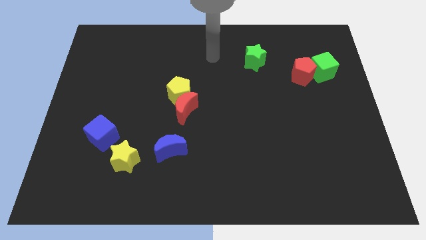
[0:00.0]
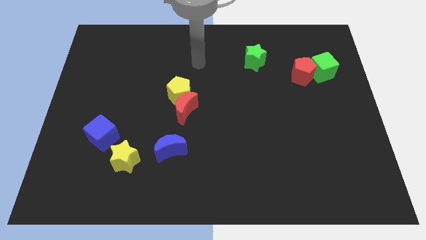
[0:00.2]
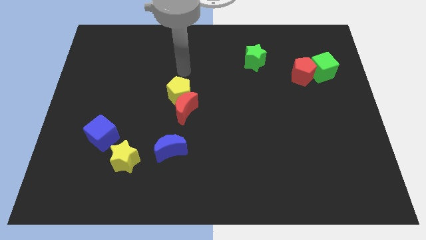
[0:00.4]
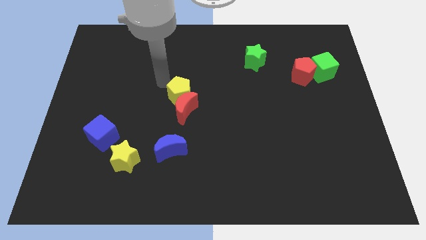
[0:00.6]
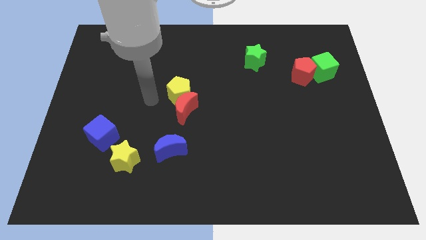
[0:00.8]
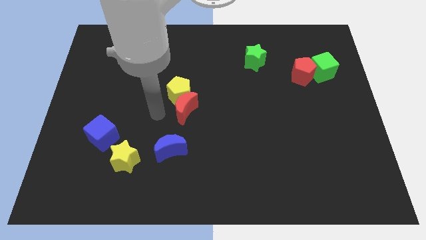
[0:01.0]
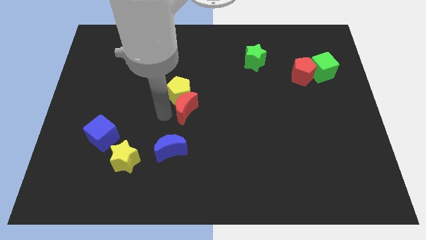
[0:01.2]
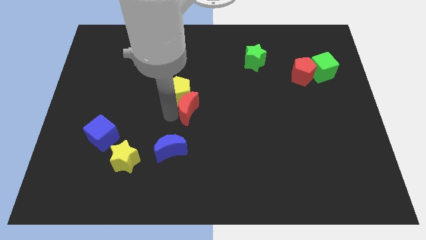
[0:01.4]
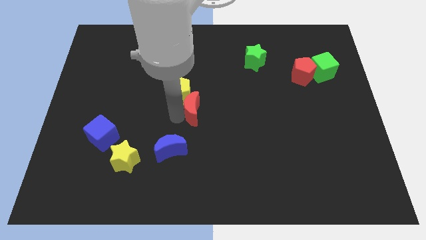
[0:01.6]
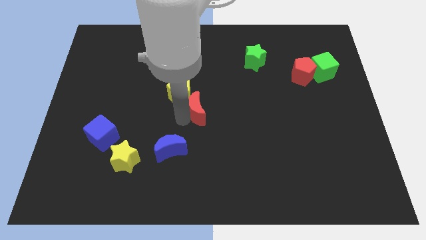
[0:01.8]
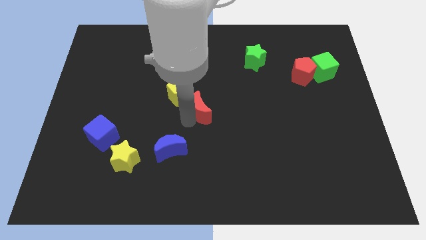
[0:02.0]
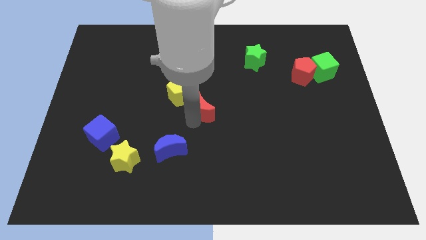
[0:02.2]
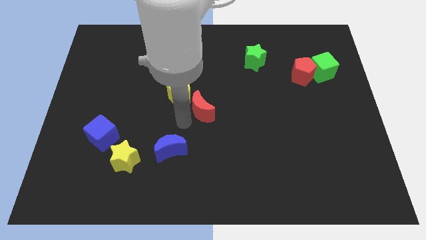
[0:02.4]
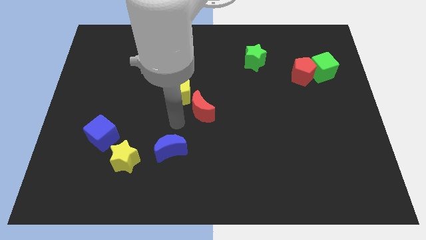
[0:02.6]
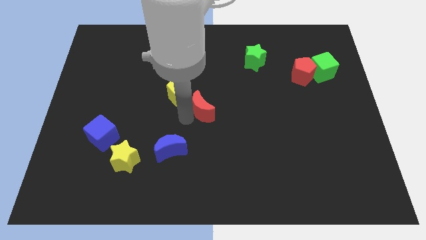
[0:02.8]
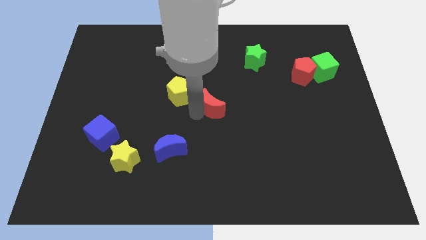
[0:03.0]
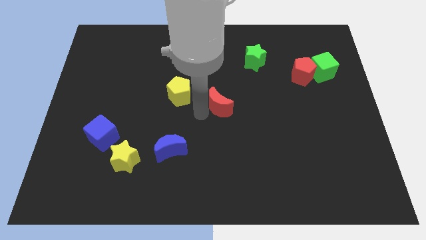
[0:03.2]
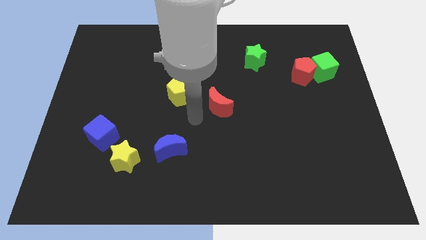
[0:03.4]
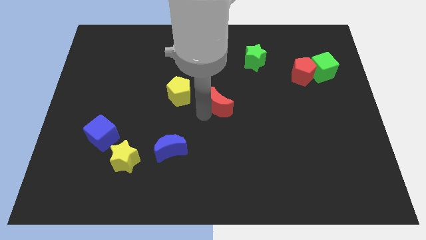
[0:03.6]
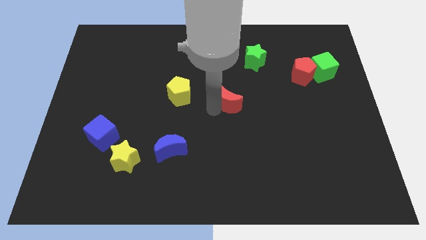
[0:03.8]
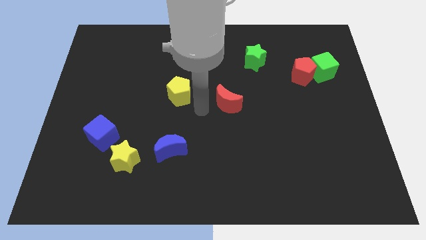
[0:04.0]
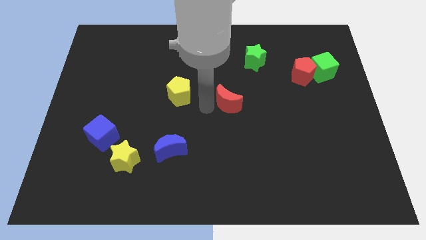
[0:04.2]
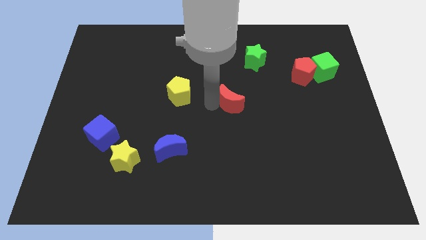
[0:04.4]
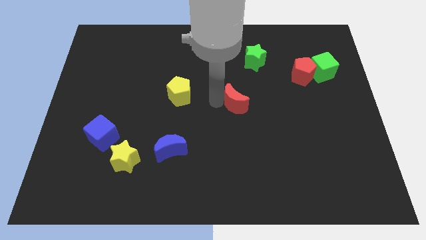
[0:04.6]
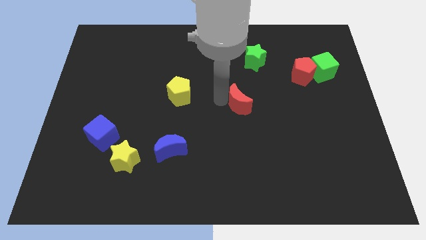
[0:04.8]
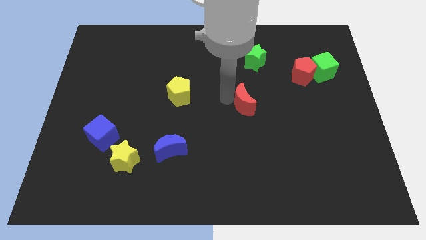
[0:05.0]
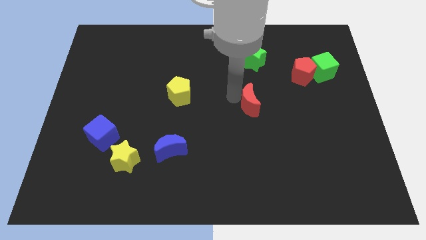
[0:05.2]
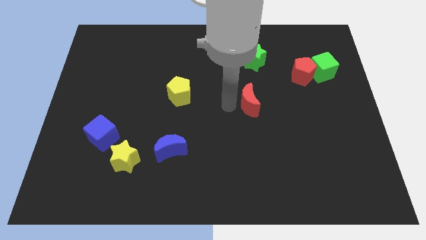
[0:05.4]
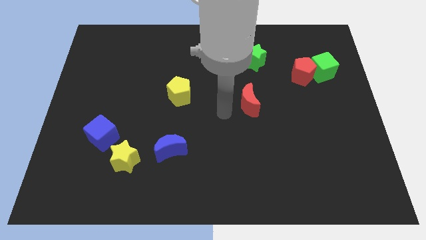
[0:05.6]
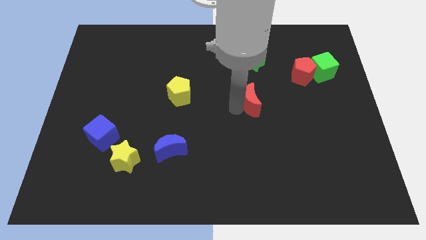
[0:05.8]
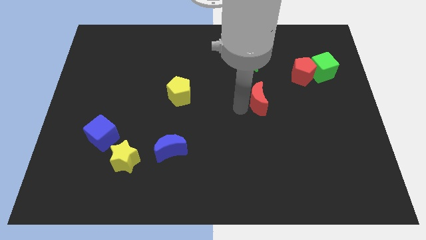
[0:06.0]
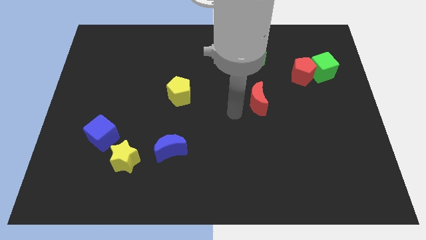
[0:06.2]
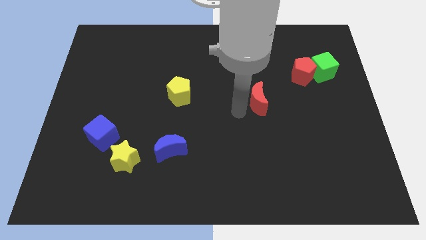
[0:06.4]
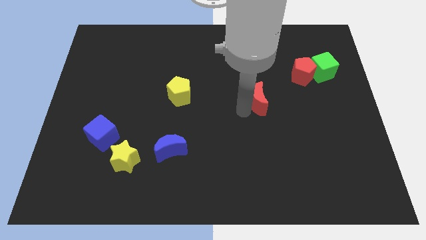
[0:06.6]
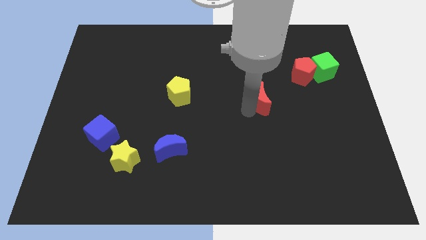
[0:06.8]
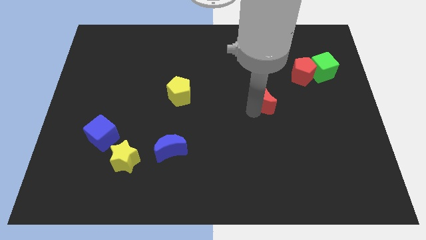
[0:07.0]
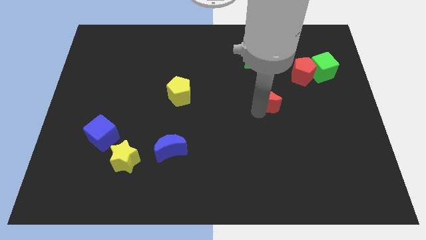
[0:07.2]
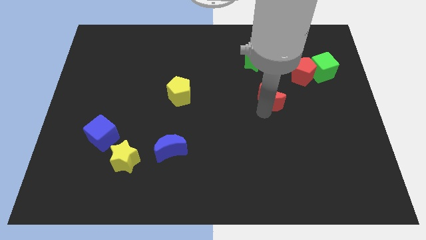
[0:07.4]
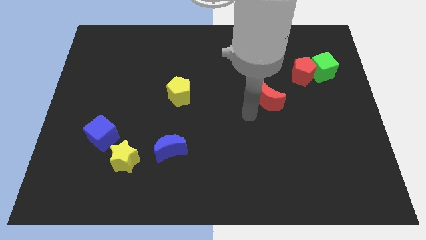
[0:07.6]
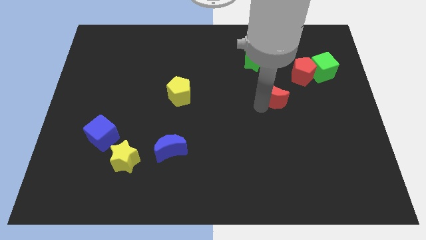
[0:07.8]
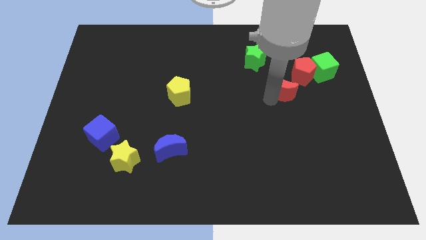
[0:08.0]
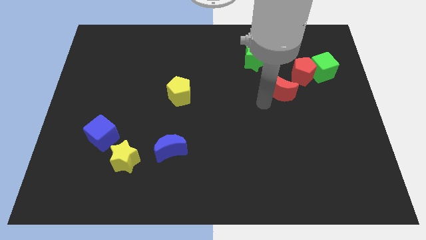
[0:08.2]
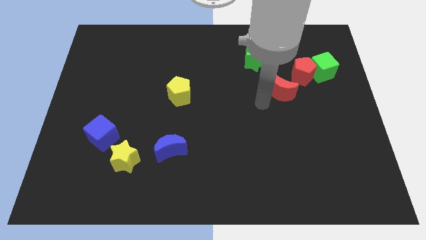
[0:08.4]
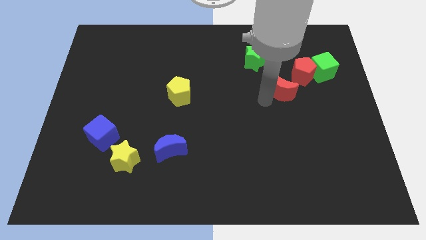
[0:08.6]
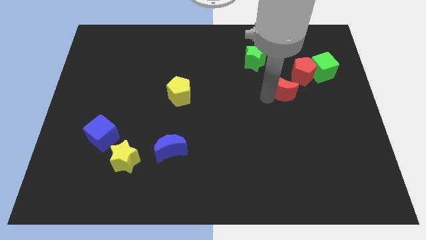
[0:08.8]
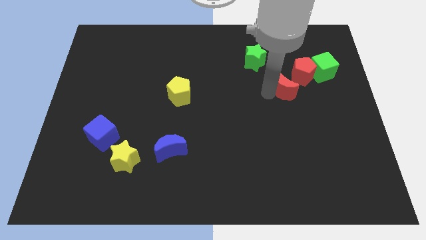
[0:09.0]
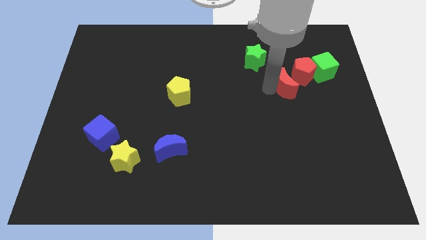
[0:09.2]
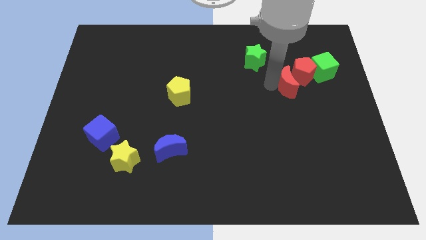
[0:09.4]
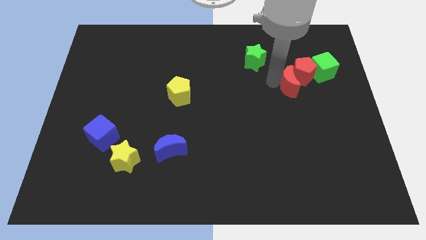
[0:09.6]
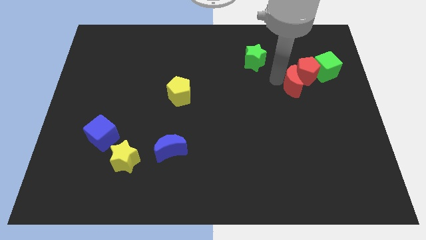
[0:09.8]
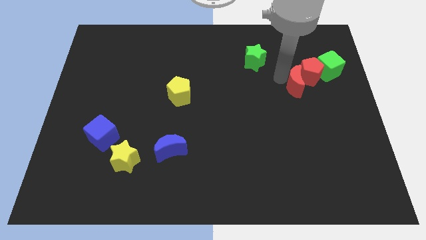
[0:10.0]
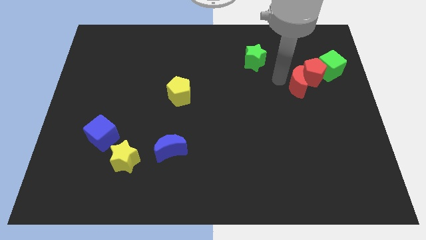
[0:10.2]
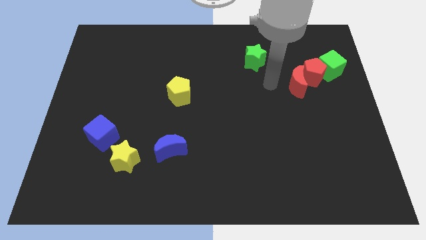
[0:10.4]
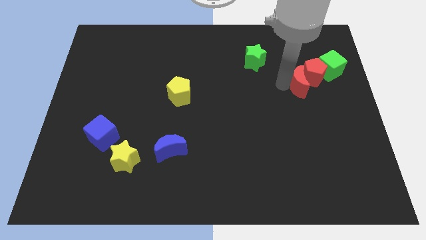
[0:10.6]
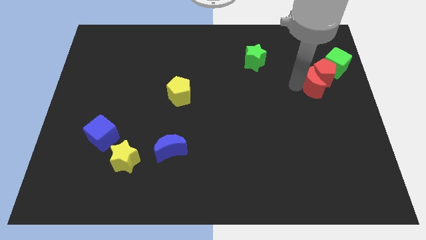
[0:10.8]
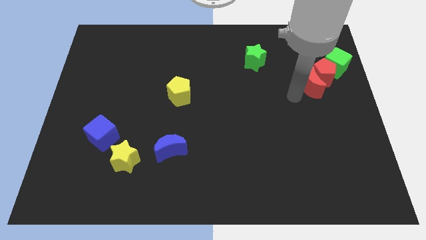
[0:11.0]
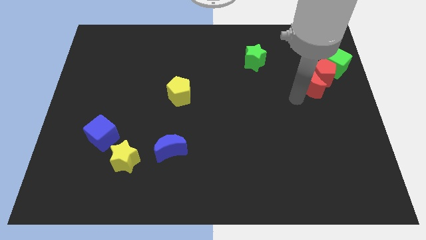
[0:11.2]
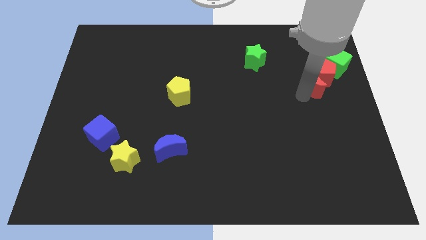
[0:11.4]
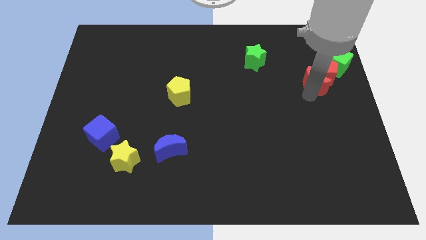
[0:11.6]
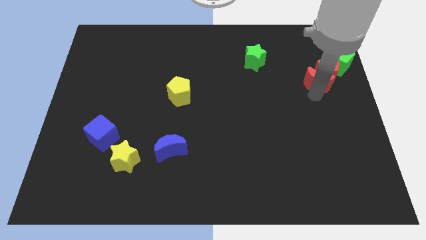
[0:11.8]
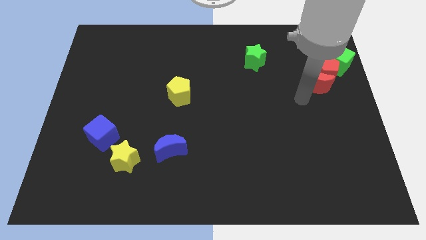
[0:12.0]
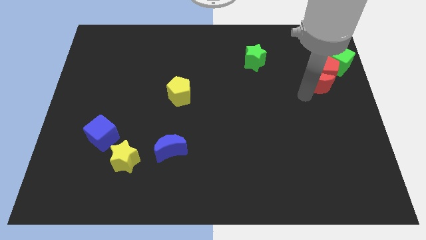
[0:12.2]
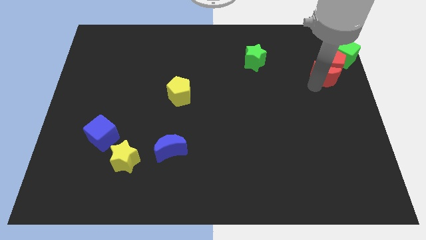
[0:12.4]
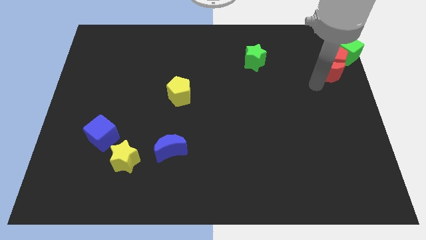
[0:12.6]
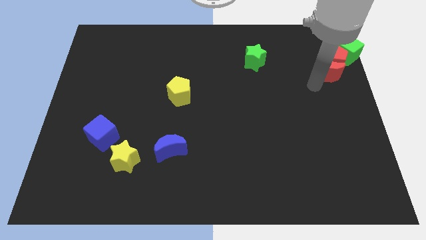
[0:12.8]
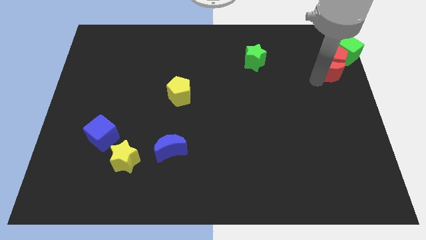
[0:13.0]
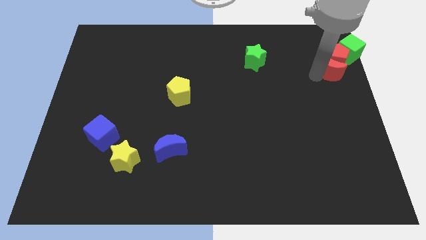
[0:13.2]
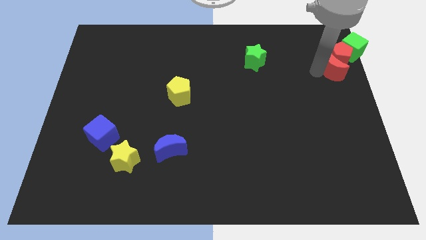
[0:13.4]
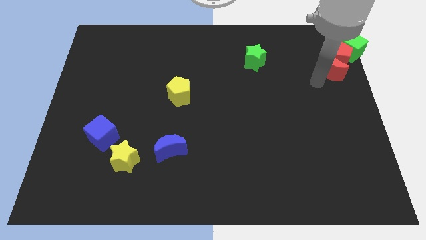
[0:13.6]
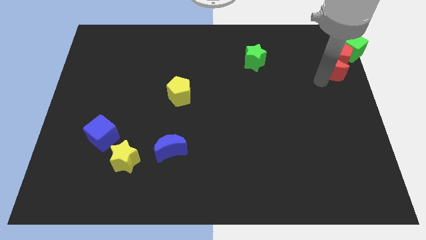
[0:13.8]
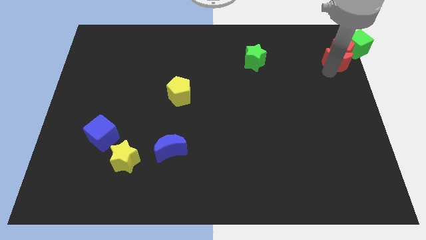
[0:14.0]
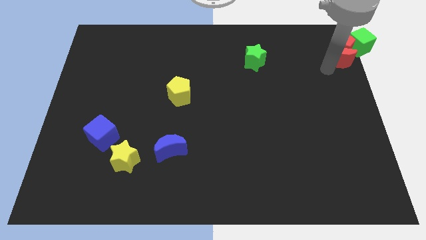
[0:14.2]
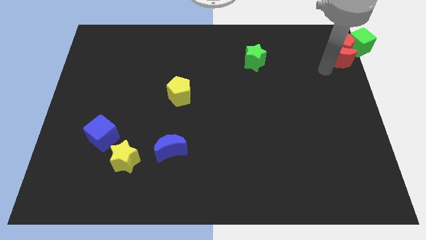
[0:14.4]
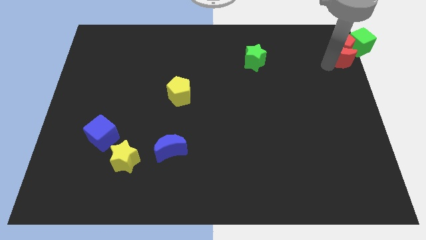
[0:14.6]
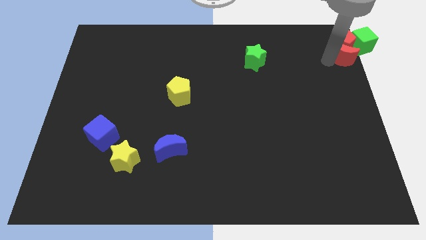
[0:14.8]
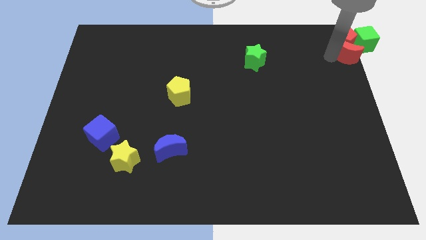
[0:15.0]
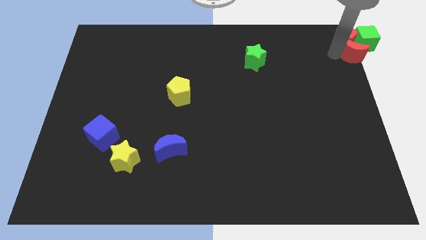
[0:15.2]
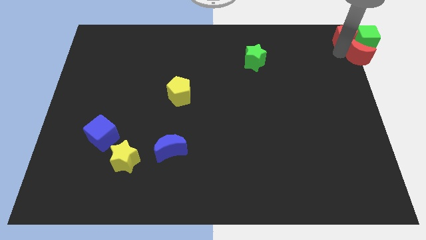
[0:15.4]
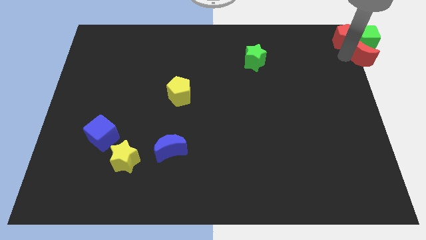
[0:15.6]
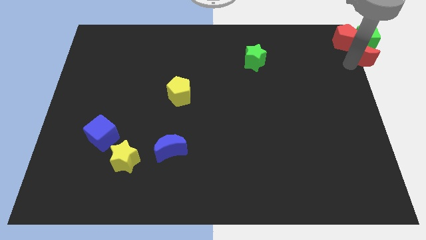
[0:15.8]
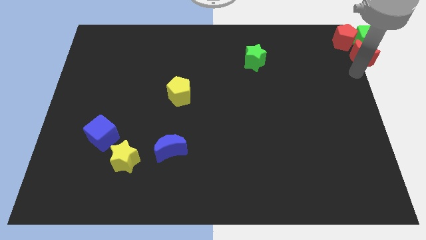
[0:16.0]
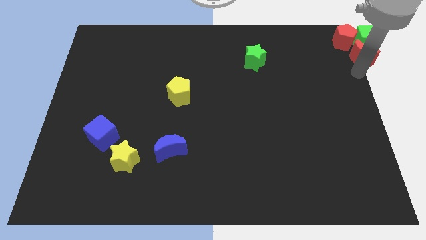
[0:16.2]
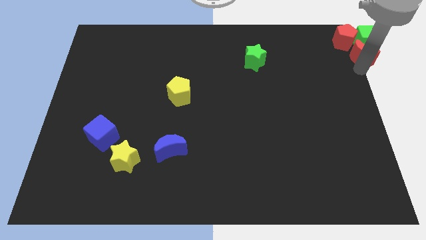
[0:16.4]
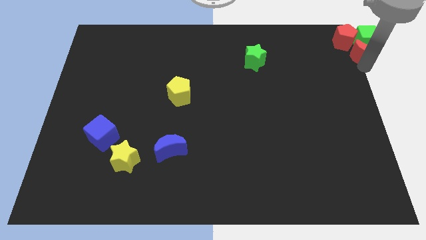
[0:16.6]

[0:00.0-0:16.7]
slide the red moon towards the green cube
